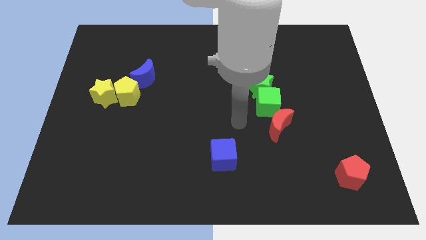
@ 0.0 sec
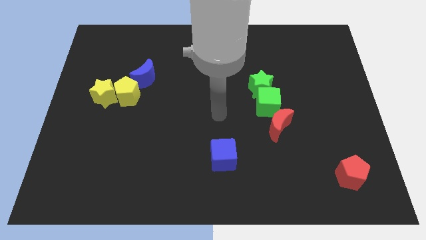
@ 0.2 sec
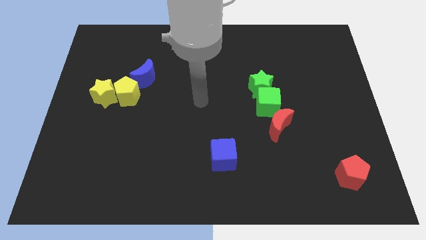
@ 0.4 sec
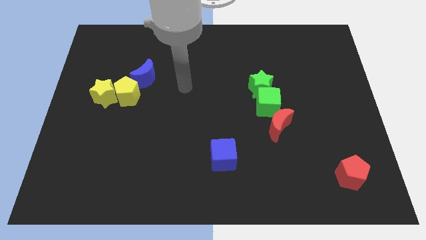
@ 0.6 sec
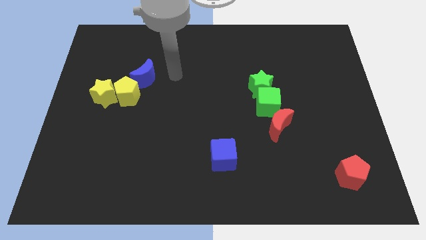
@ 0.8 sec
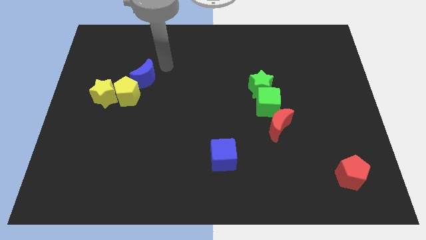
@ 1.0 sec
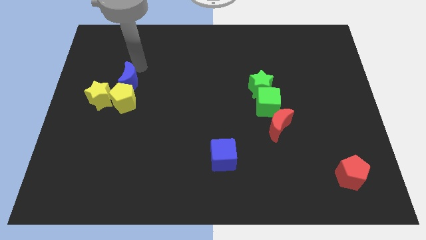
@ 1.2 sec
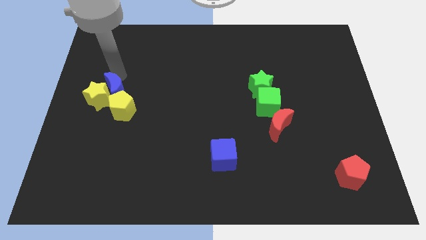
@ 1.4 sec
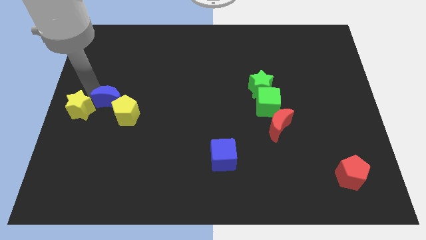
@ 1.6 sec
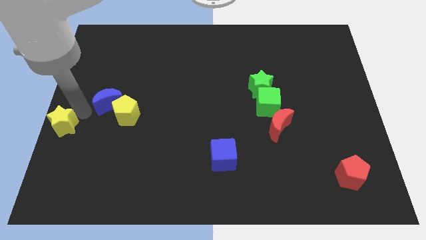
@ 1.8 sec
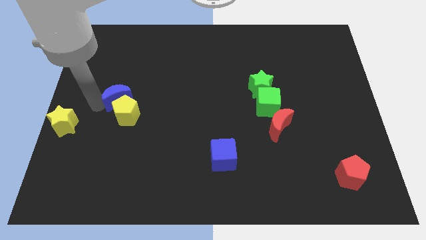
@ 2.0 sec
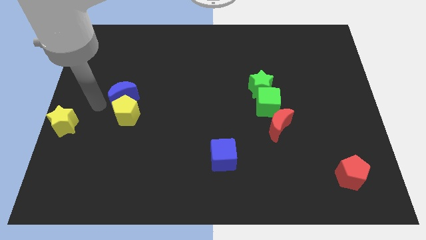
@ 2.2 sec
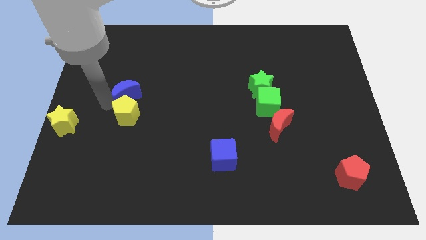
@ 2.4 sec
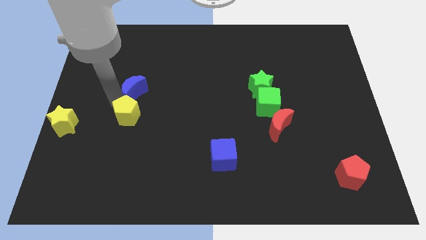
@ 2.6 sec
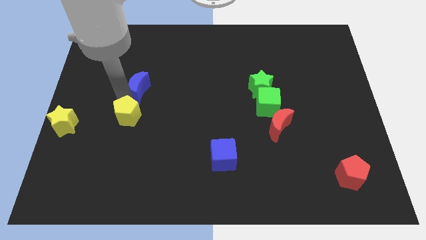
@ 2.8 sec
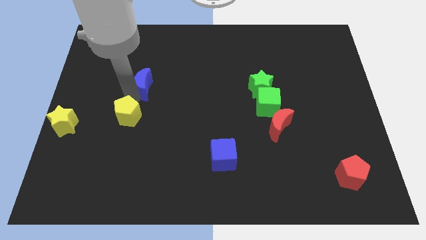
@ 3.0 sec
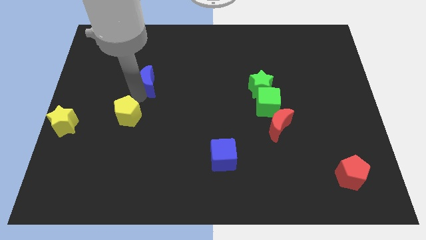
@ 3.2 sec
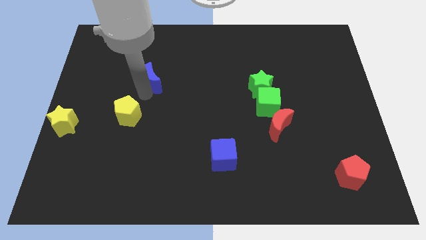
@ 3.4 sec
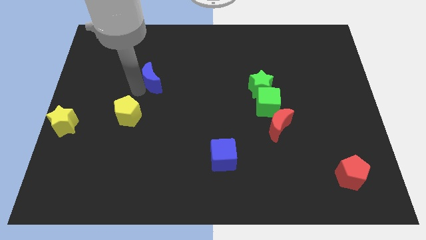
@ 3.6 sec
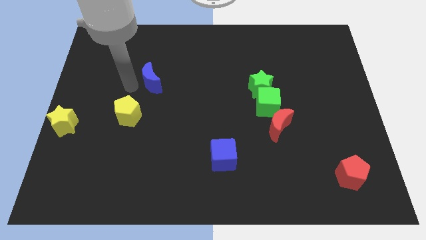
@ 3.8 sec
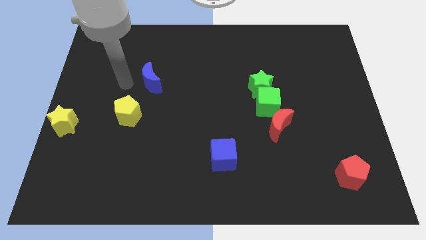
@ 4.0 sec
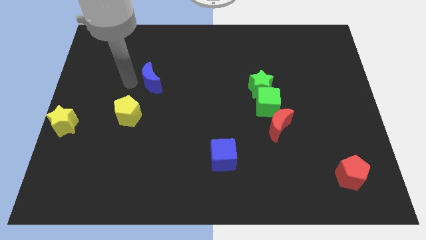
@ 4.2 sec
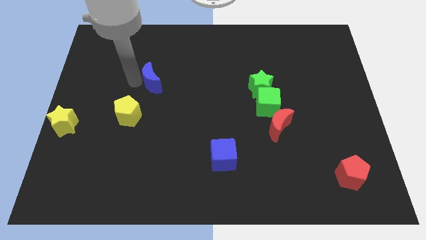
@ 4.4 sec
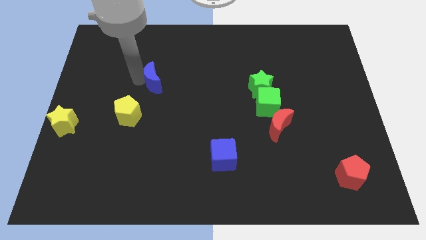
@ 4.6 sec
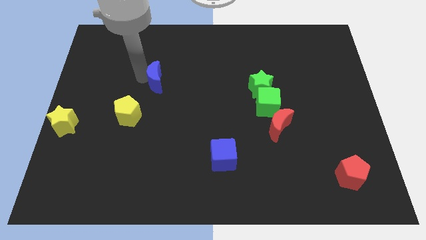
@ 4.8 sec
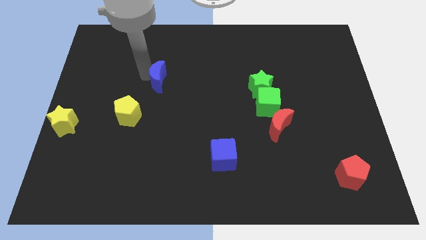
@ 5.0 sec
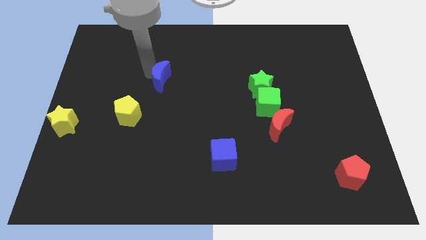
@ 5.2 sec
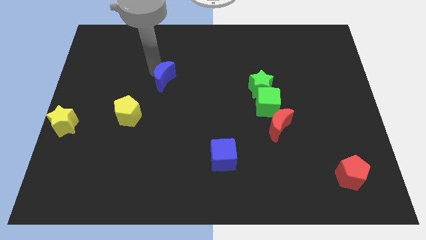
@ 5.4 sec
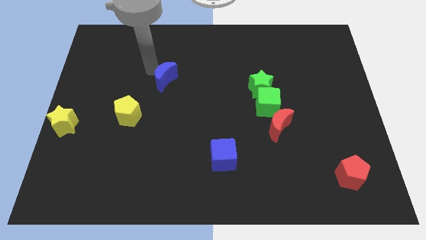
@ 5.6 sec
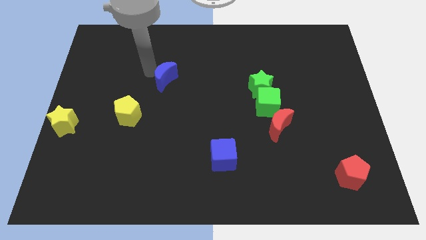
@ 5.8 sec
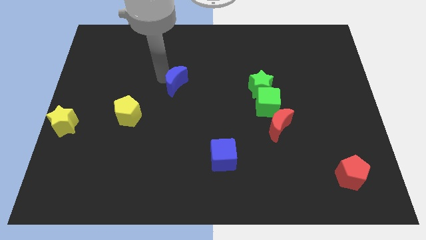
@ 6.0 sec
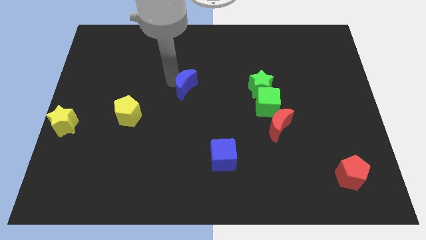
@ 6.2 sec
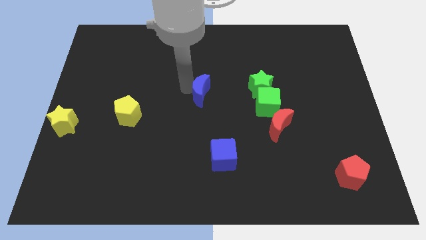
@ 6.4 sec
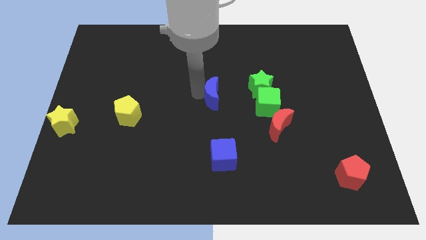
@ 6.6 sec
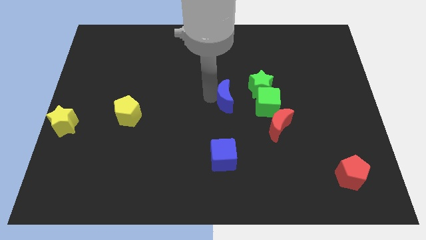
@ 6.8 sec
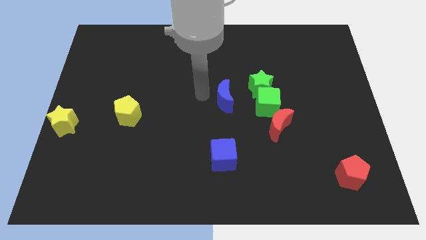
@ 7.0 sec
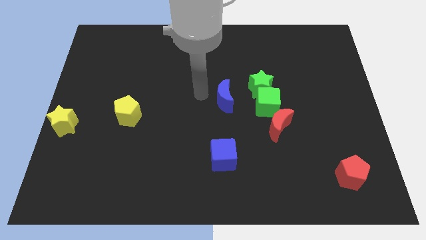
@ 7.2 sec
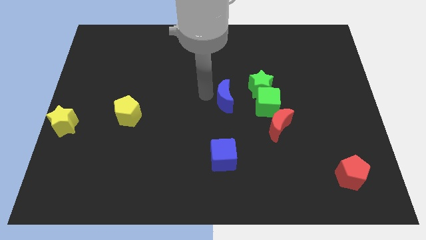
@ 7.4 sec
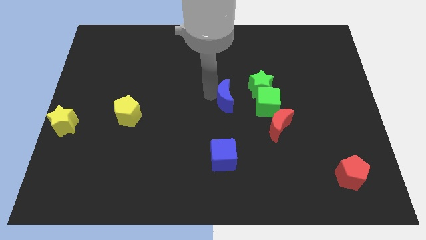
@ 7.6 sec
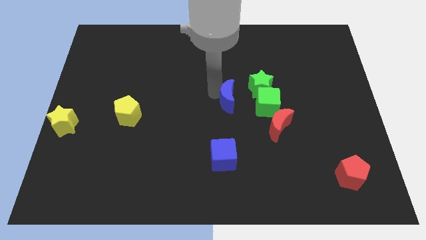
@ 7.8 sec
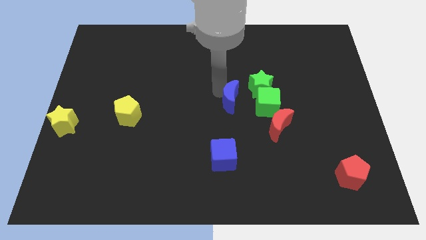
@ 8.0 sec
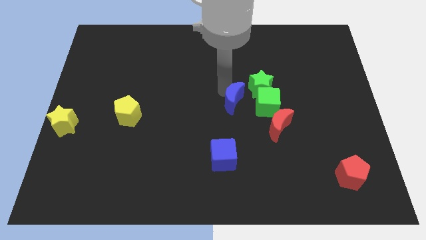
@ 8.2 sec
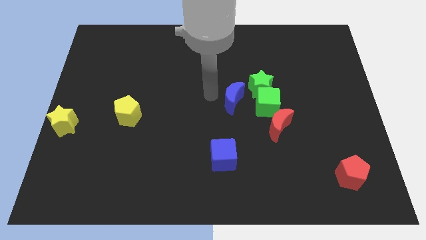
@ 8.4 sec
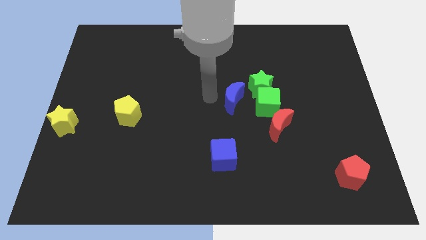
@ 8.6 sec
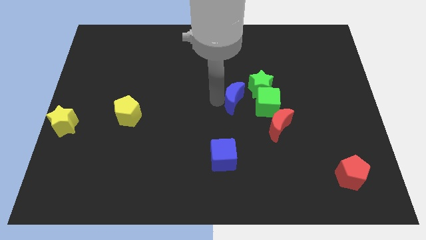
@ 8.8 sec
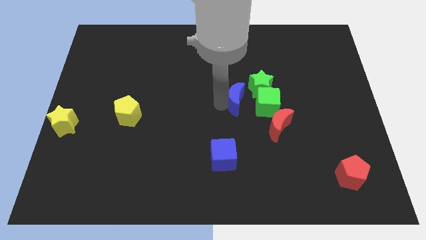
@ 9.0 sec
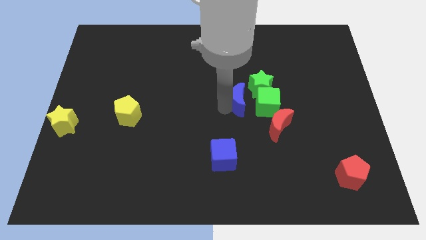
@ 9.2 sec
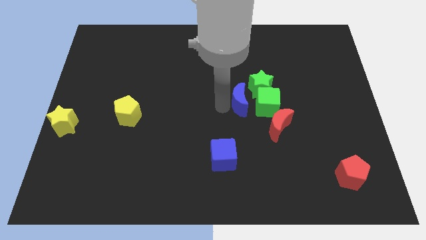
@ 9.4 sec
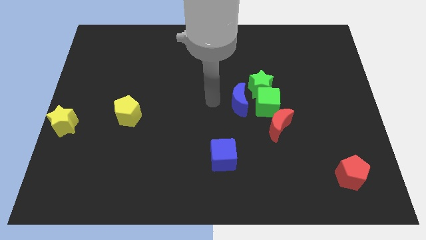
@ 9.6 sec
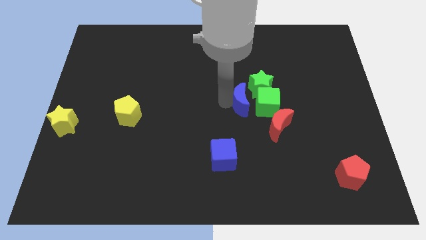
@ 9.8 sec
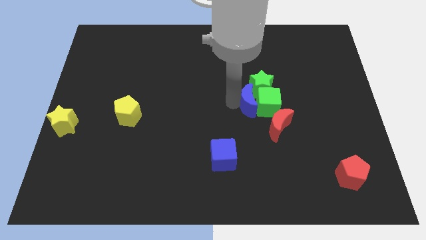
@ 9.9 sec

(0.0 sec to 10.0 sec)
slide the blue moon close to the green cube
